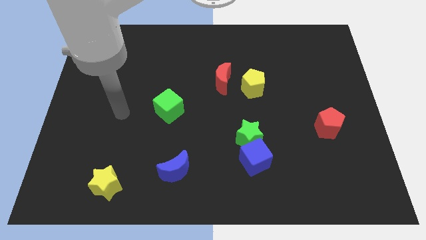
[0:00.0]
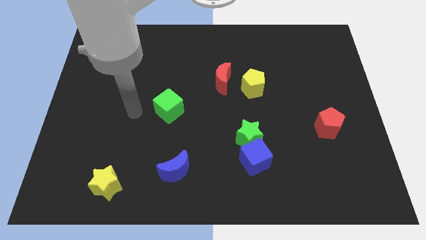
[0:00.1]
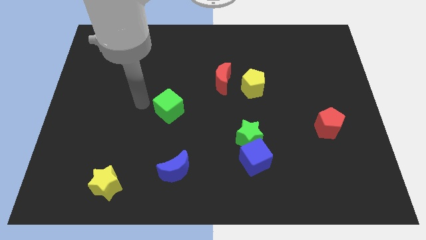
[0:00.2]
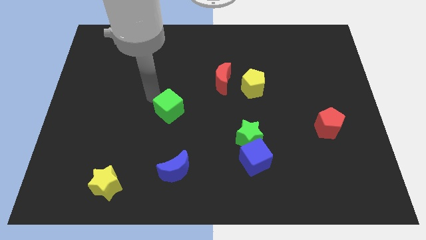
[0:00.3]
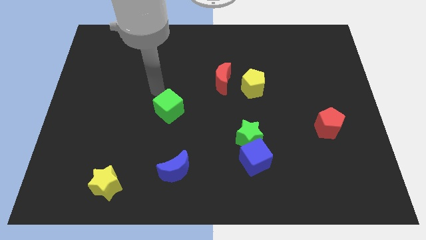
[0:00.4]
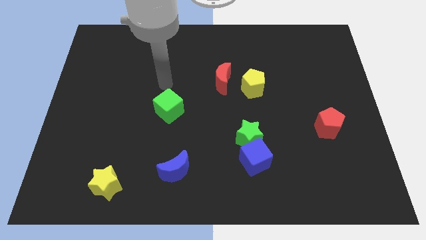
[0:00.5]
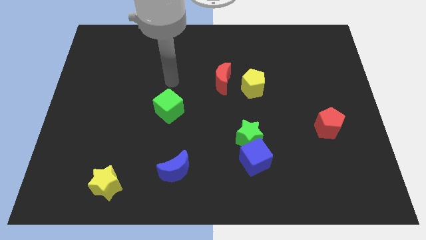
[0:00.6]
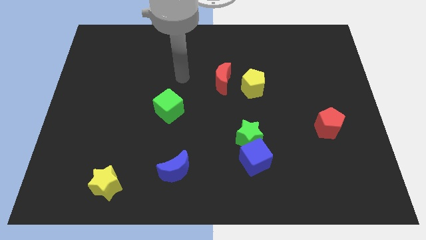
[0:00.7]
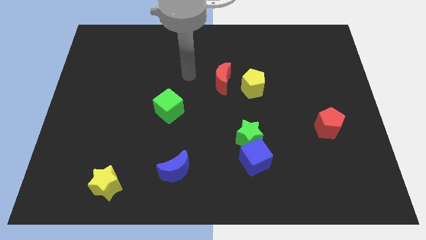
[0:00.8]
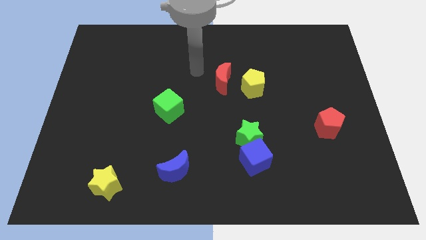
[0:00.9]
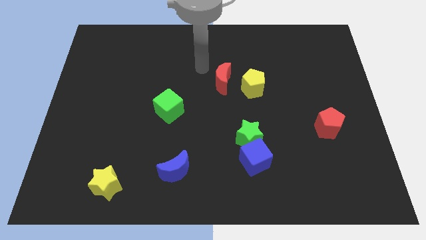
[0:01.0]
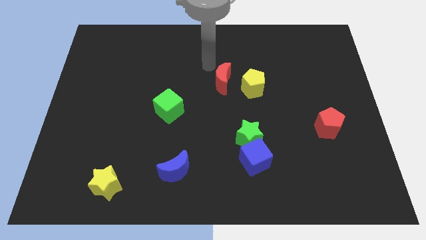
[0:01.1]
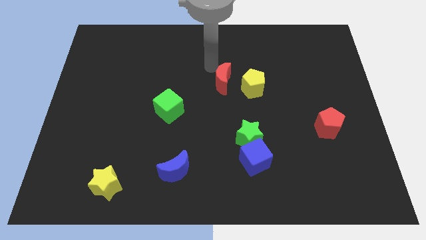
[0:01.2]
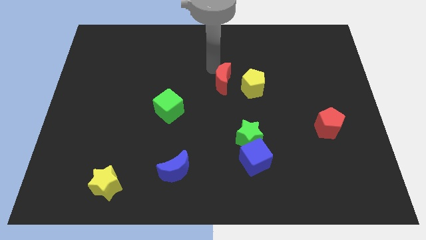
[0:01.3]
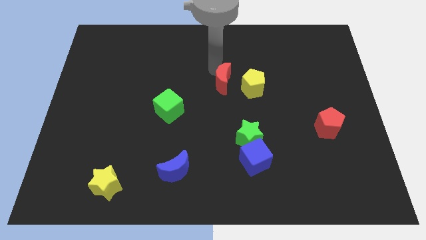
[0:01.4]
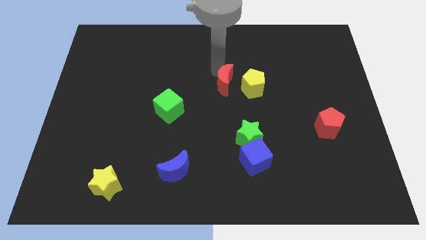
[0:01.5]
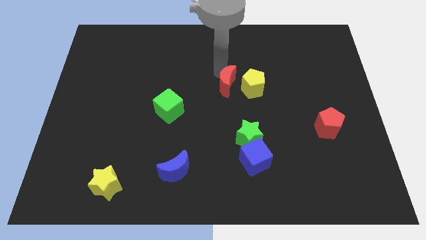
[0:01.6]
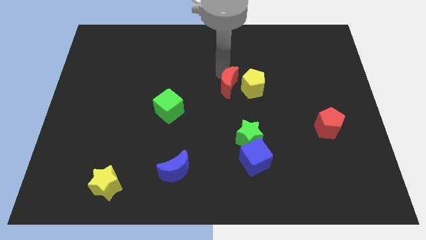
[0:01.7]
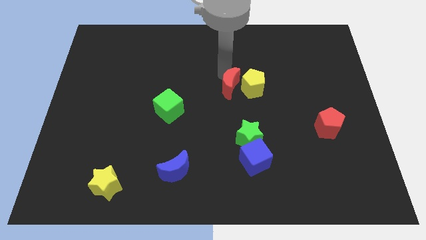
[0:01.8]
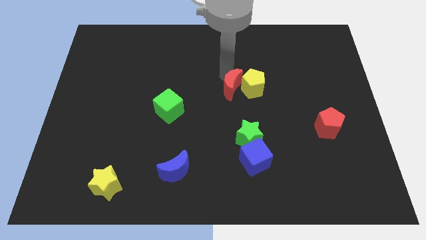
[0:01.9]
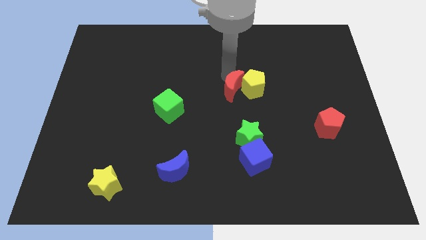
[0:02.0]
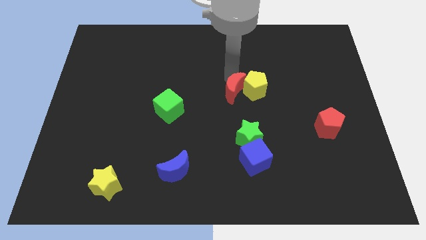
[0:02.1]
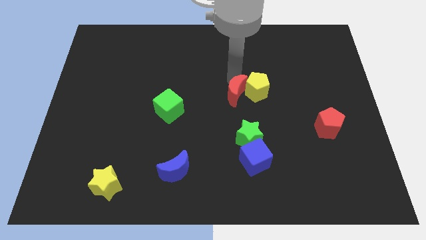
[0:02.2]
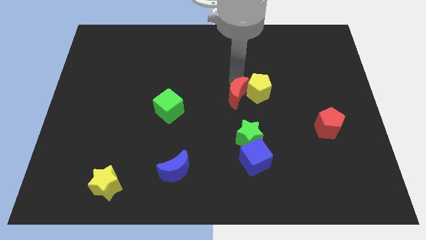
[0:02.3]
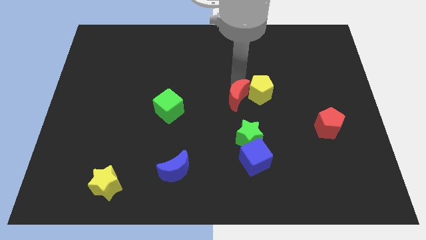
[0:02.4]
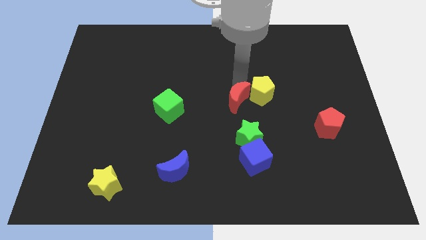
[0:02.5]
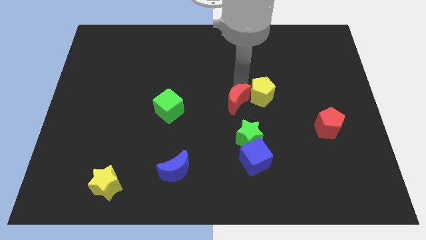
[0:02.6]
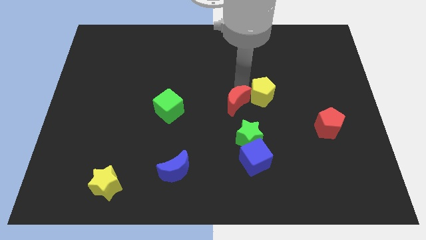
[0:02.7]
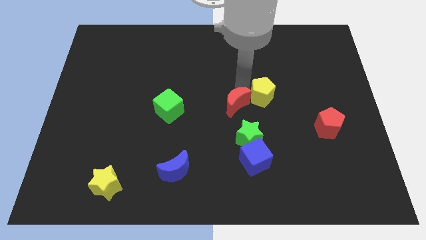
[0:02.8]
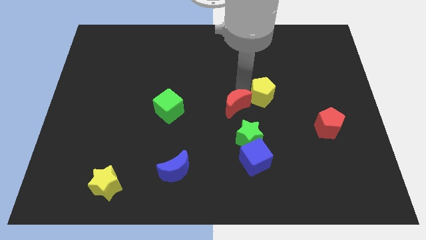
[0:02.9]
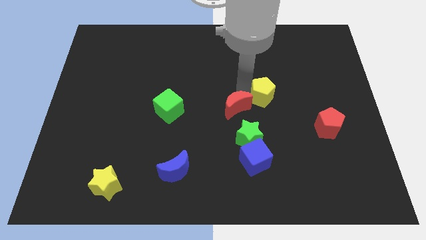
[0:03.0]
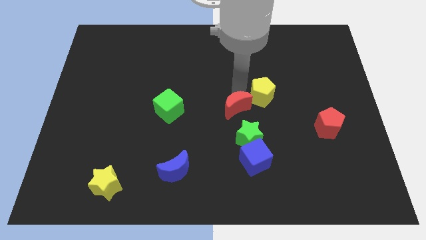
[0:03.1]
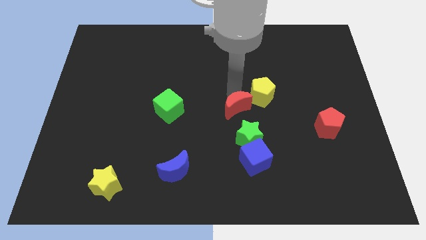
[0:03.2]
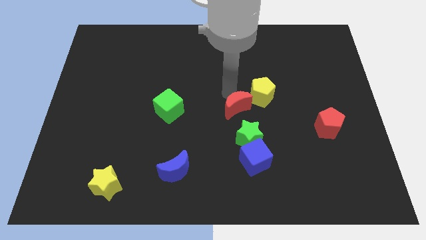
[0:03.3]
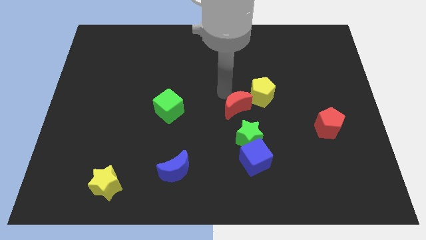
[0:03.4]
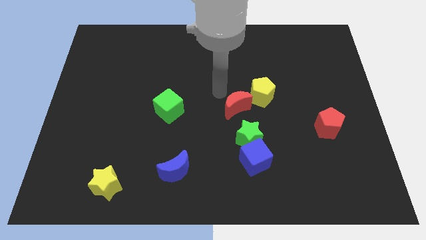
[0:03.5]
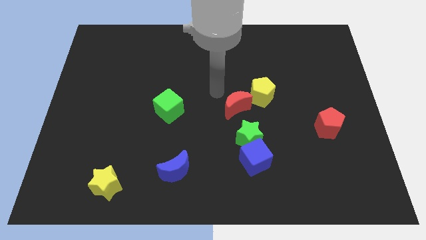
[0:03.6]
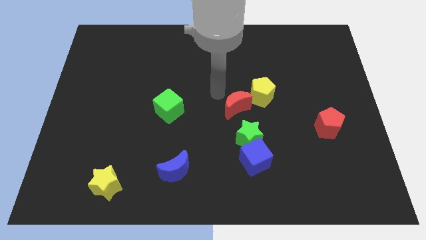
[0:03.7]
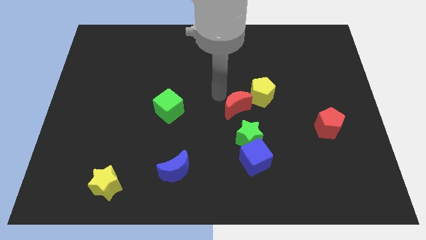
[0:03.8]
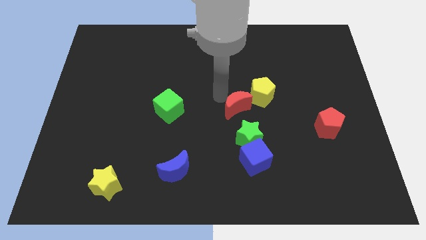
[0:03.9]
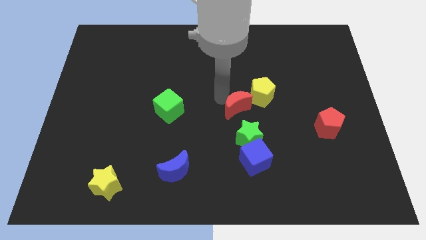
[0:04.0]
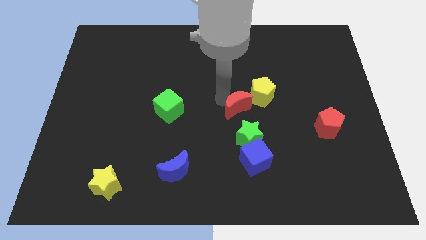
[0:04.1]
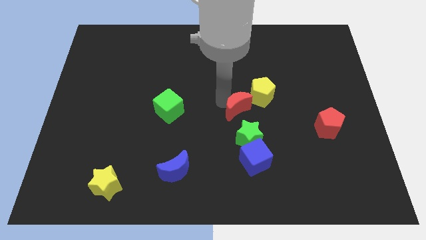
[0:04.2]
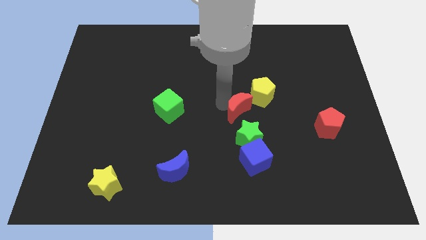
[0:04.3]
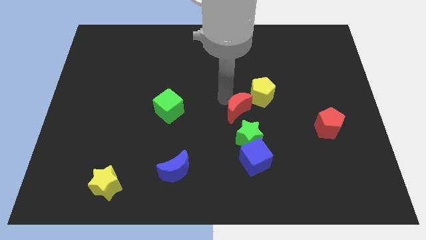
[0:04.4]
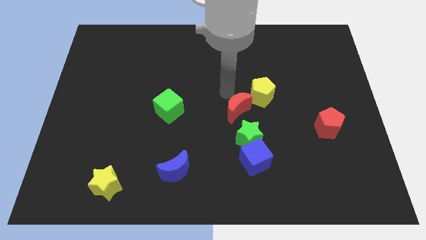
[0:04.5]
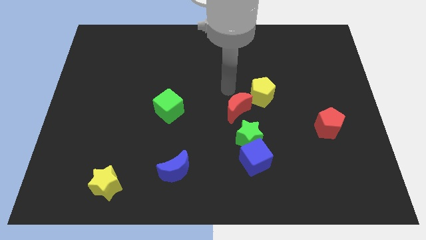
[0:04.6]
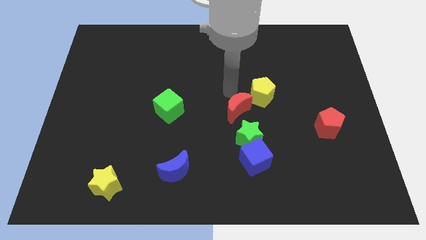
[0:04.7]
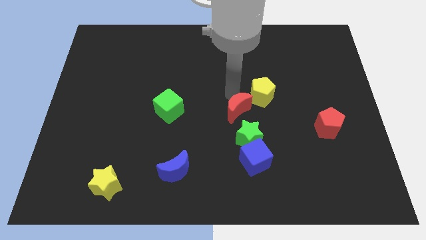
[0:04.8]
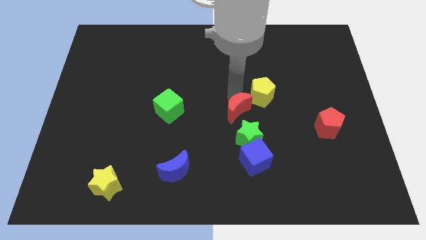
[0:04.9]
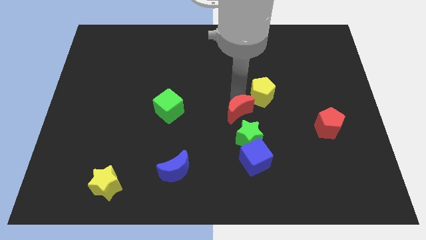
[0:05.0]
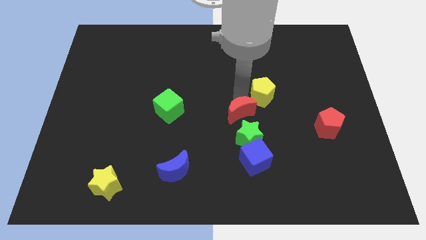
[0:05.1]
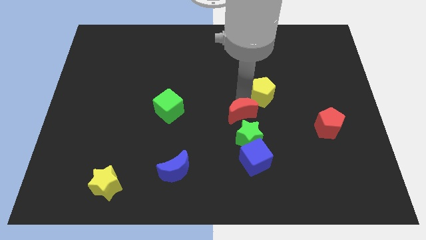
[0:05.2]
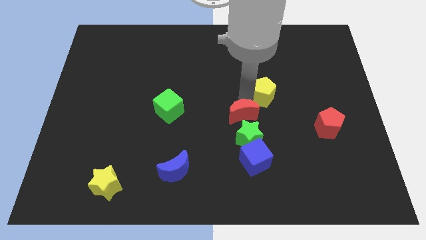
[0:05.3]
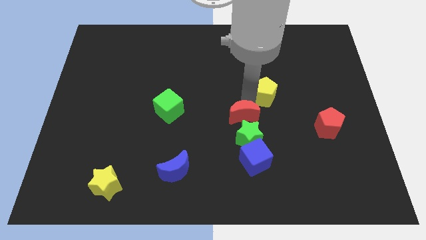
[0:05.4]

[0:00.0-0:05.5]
push the red moon close to the green star

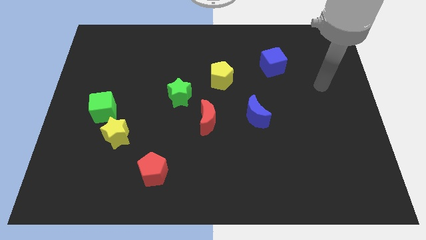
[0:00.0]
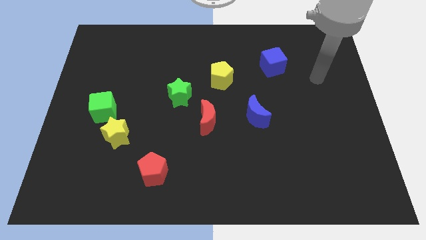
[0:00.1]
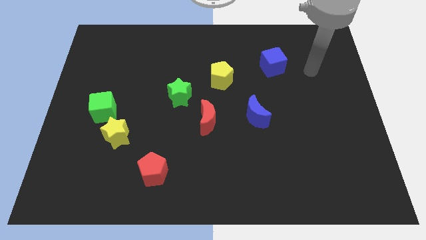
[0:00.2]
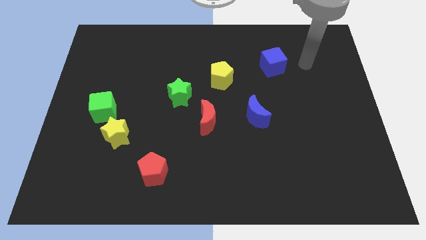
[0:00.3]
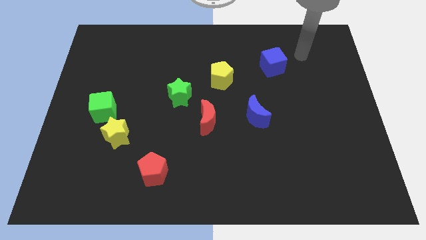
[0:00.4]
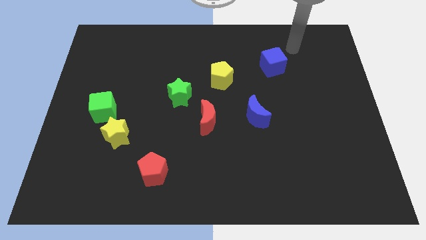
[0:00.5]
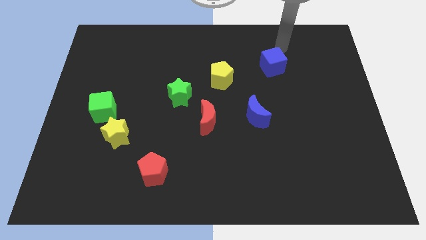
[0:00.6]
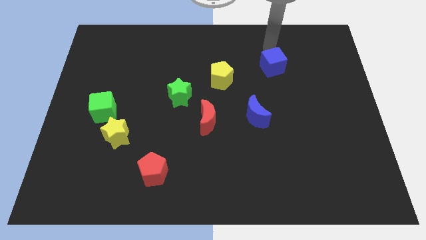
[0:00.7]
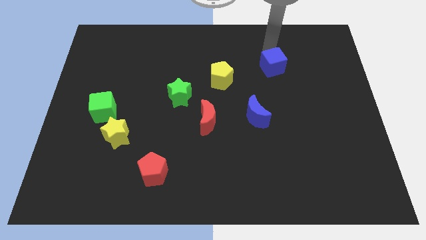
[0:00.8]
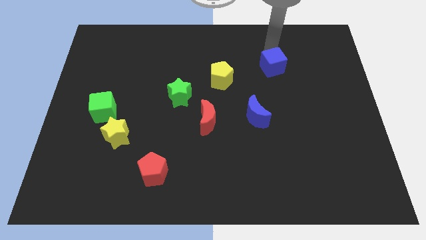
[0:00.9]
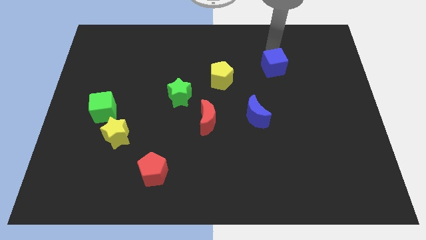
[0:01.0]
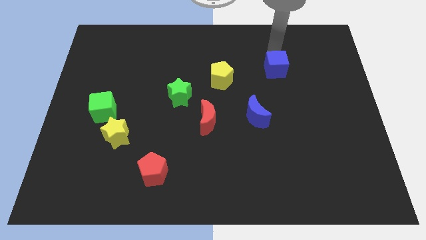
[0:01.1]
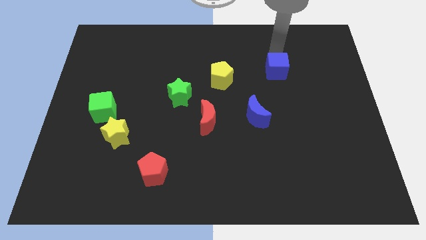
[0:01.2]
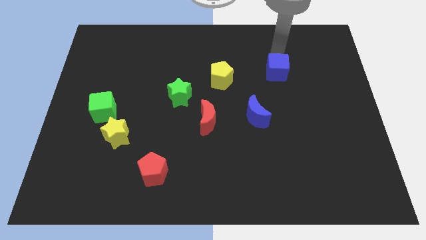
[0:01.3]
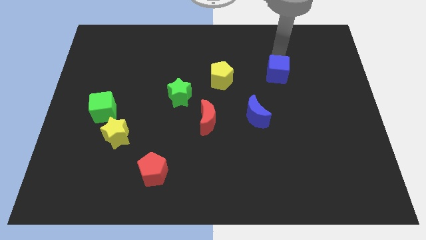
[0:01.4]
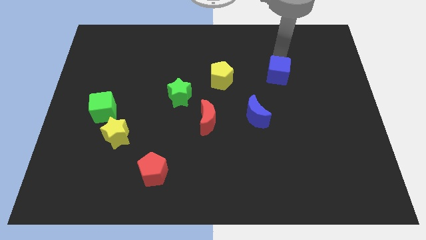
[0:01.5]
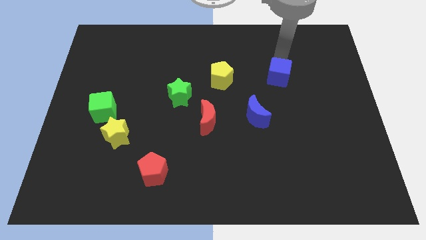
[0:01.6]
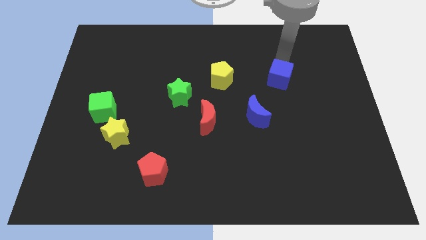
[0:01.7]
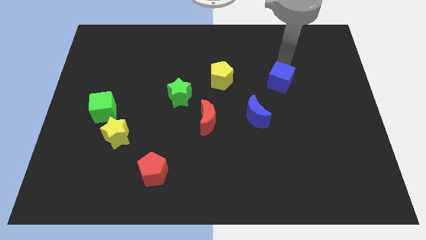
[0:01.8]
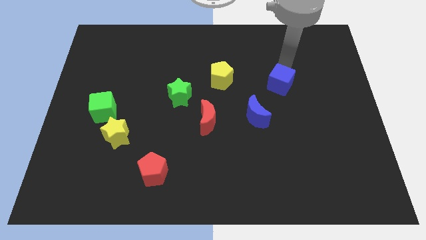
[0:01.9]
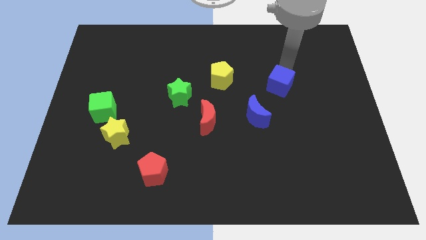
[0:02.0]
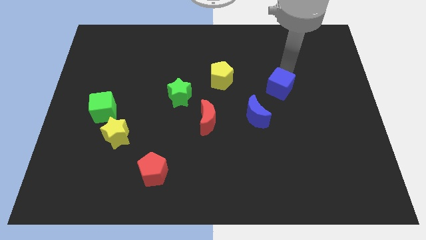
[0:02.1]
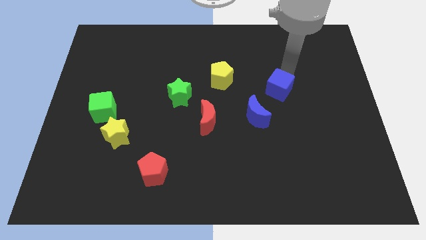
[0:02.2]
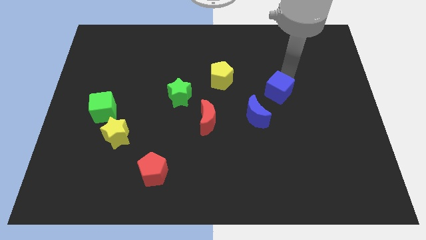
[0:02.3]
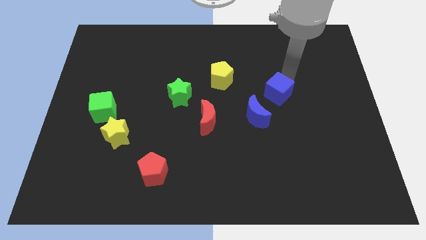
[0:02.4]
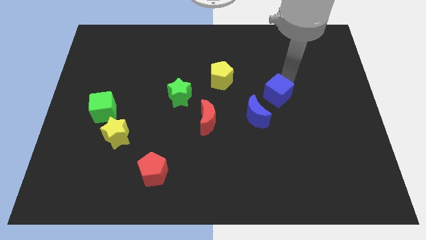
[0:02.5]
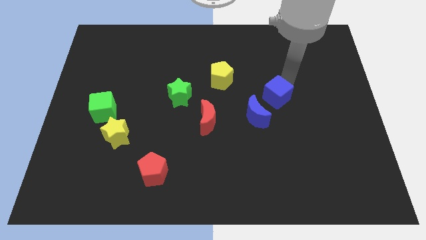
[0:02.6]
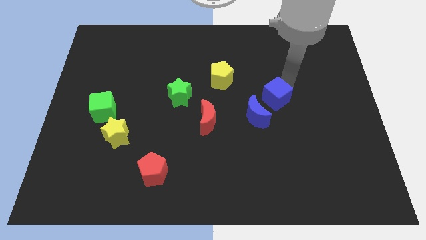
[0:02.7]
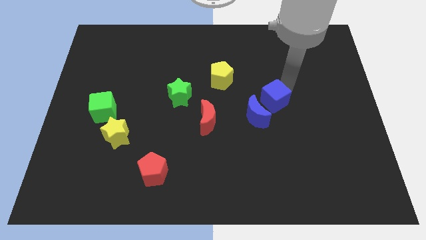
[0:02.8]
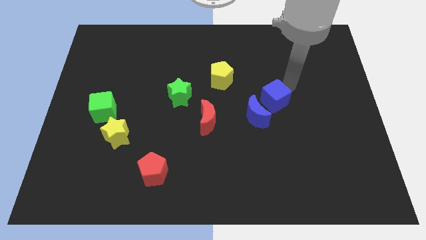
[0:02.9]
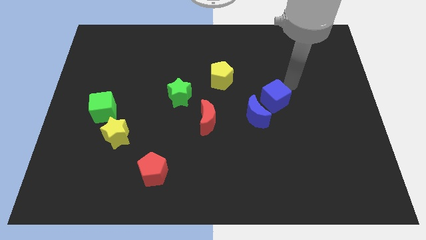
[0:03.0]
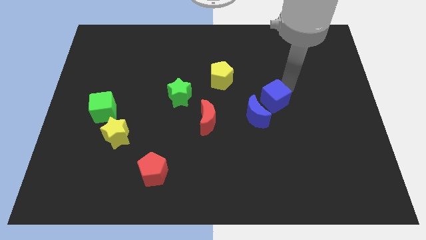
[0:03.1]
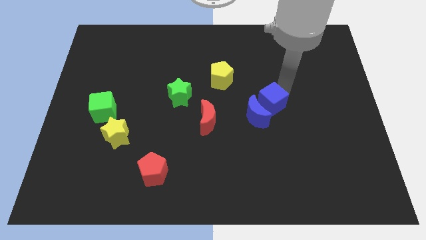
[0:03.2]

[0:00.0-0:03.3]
slide the blue cube to the blue moon
